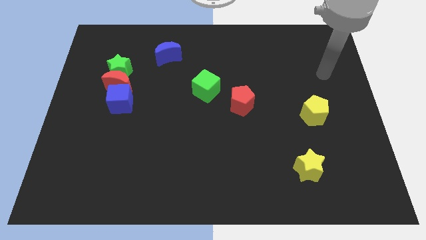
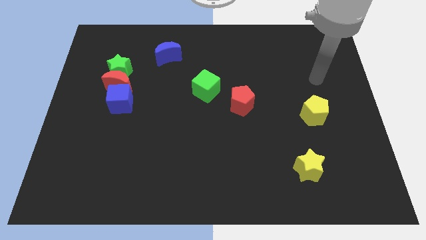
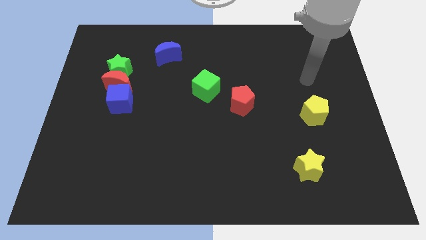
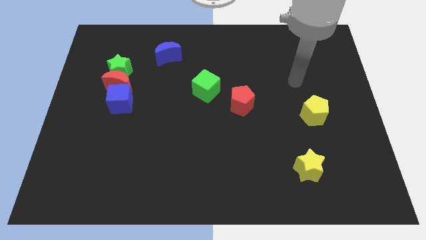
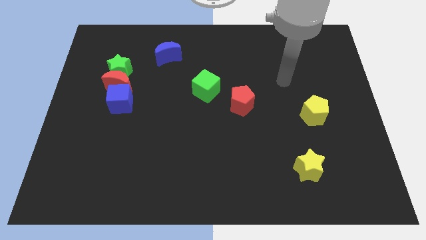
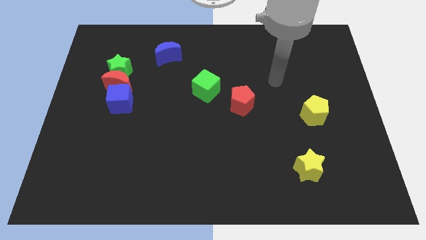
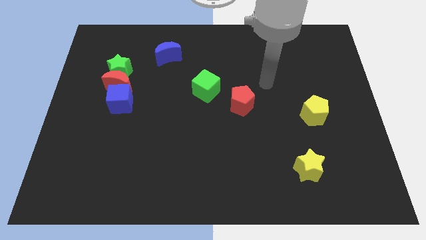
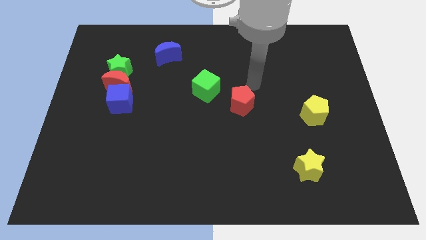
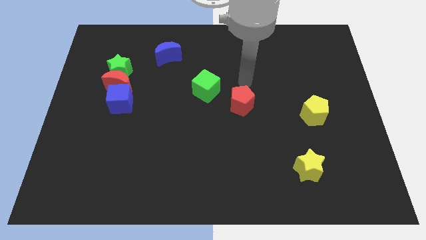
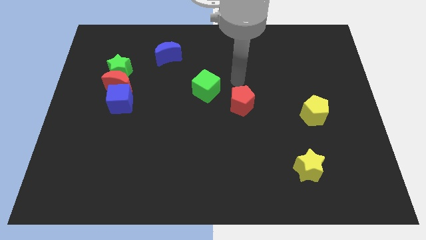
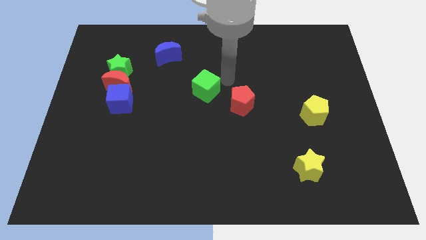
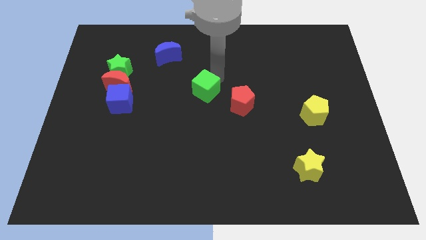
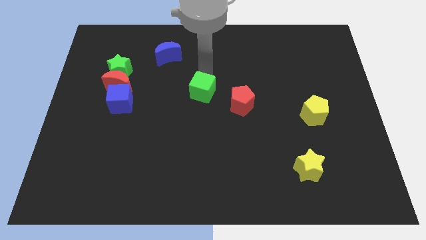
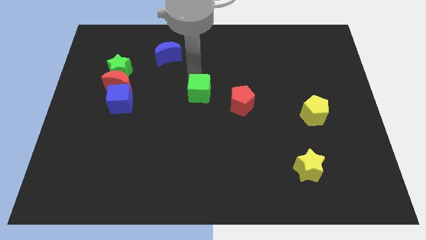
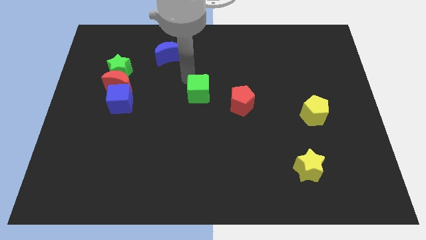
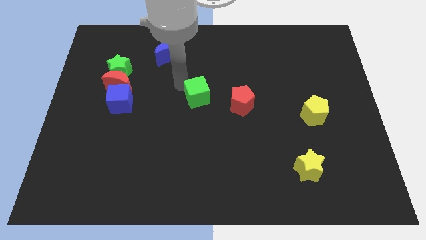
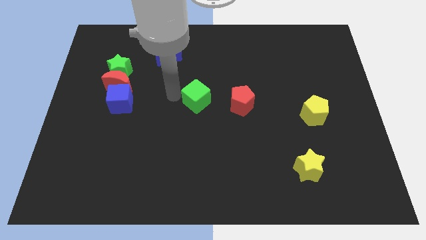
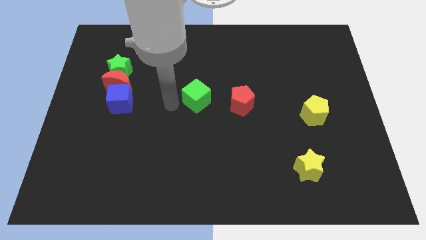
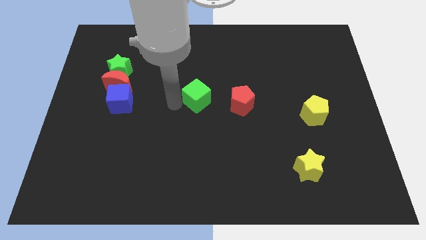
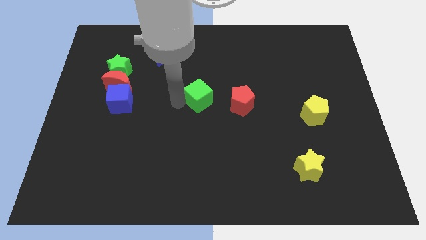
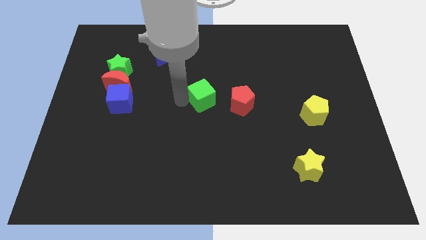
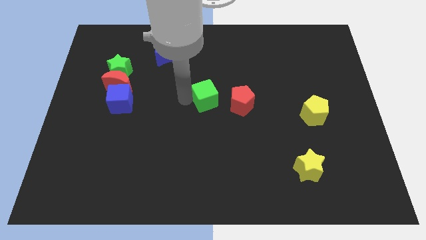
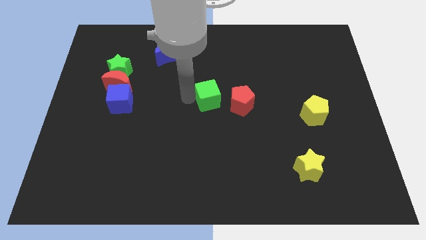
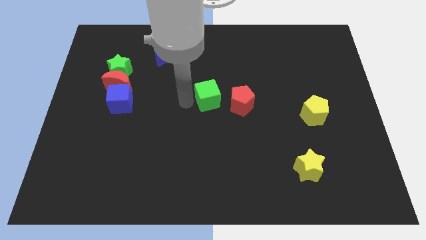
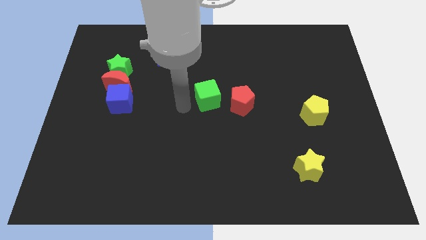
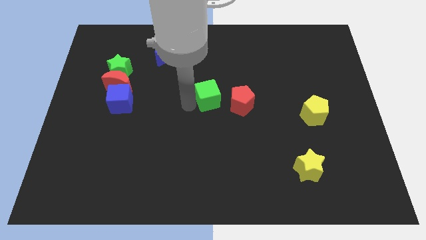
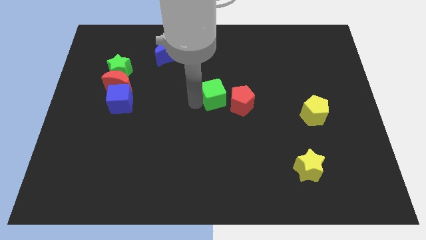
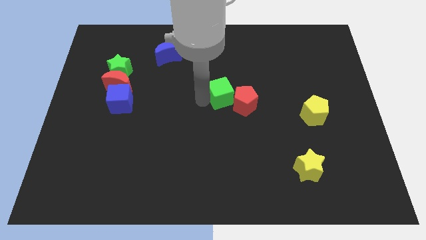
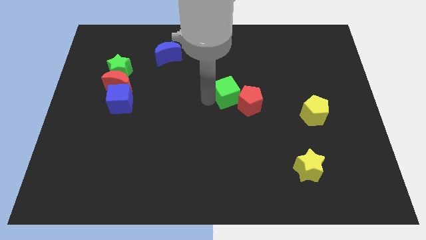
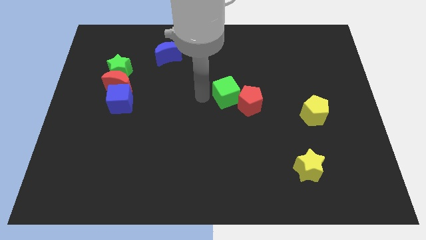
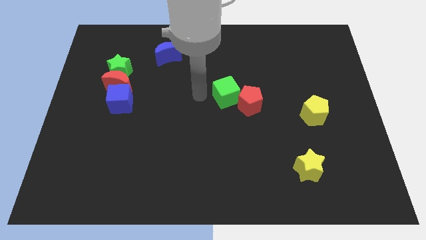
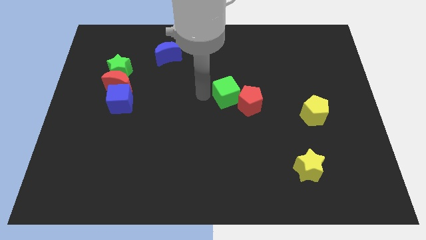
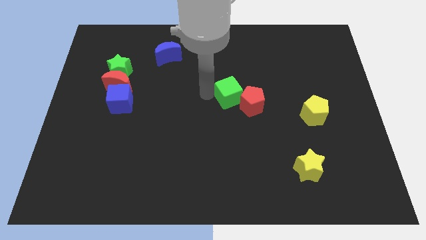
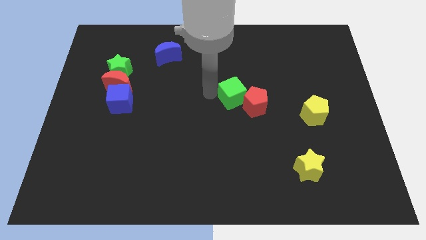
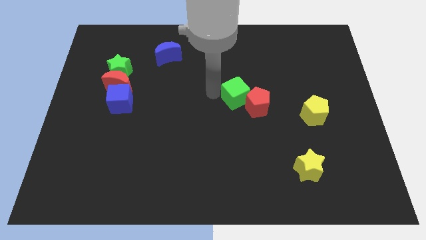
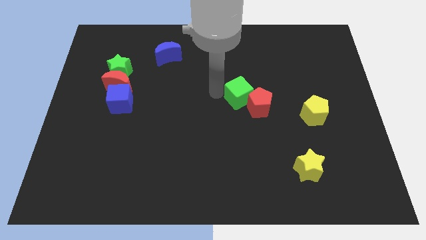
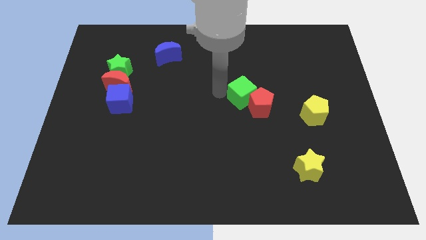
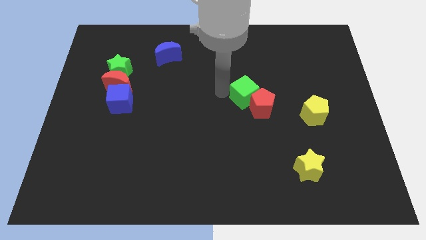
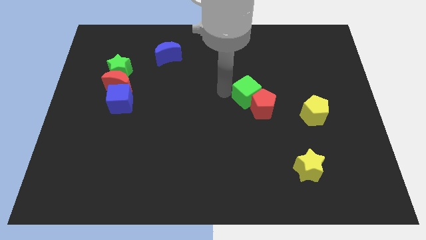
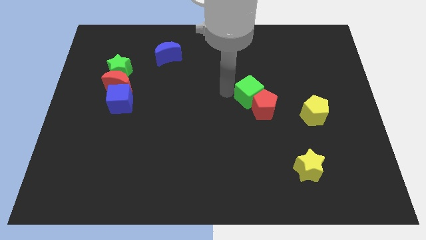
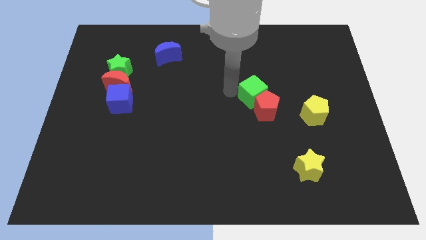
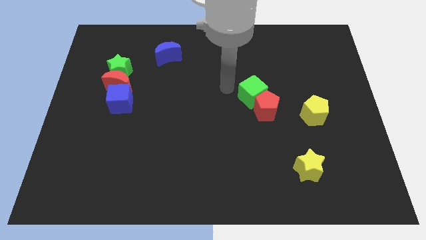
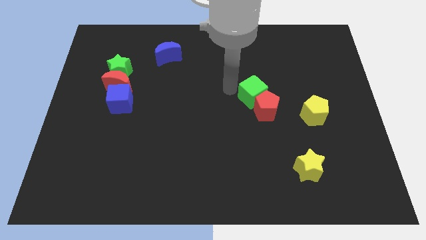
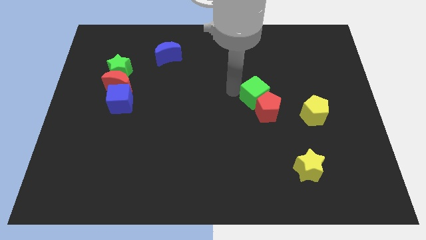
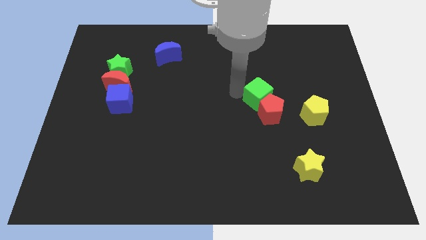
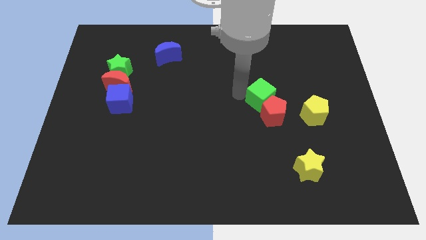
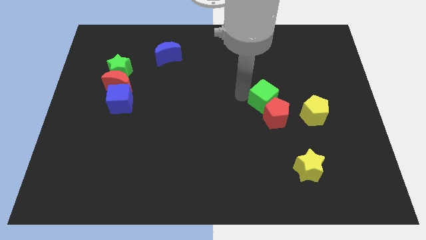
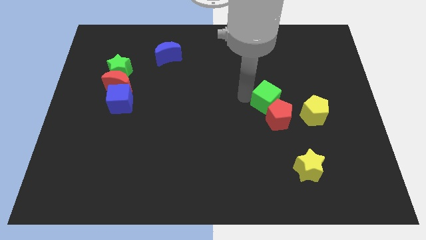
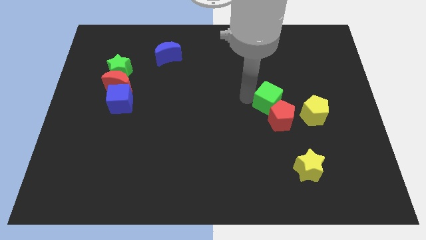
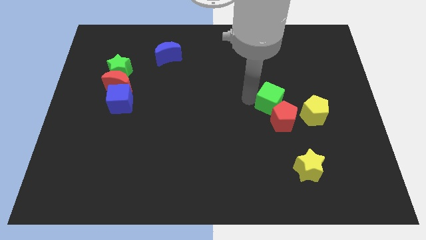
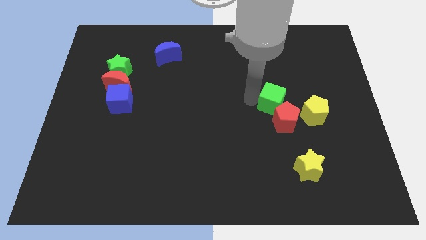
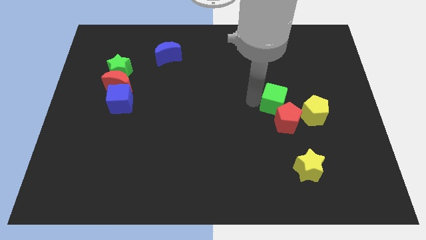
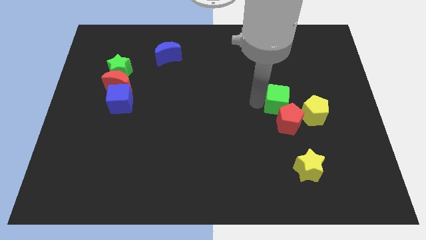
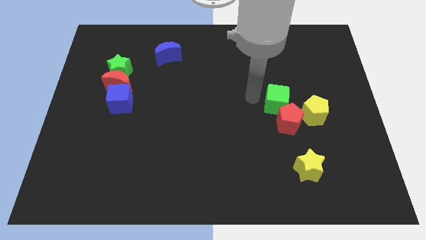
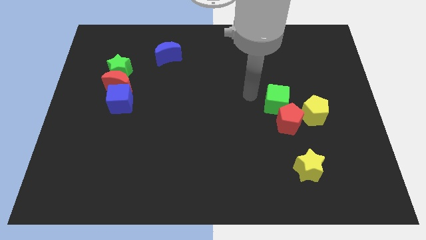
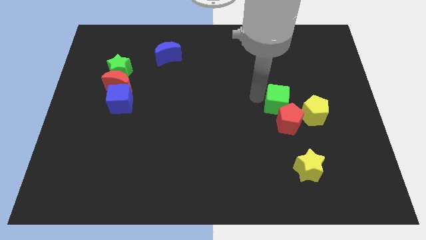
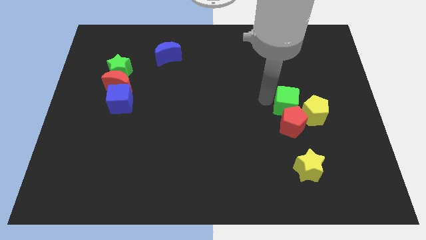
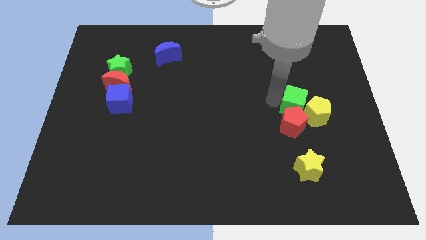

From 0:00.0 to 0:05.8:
move the green cube to the yellow pentagon

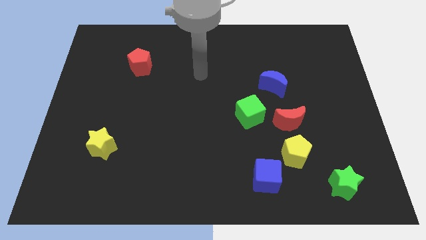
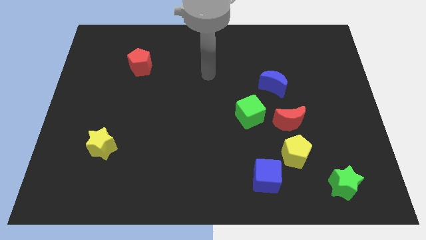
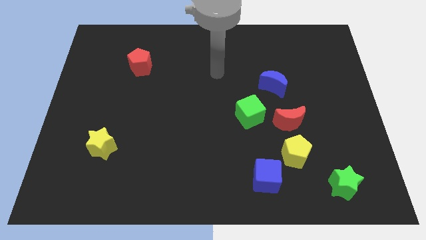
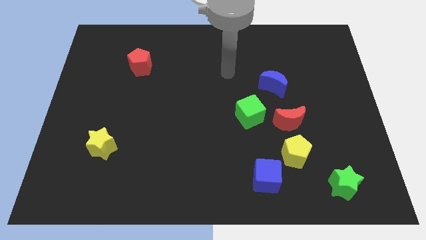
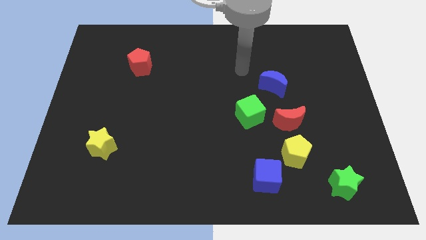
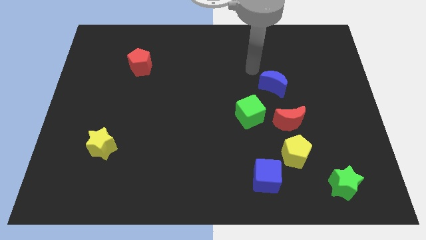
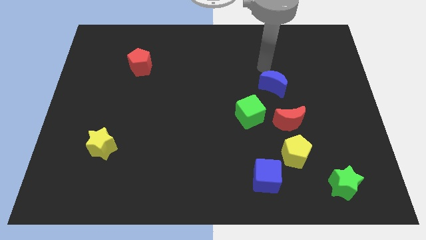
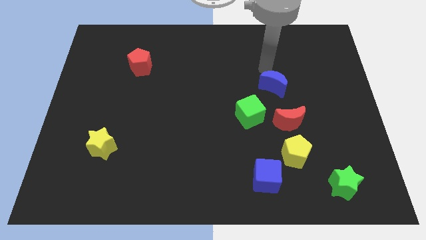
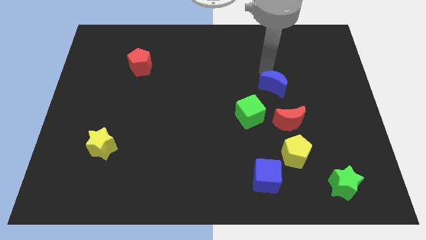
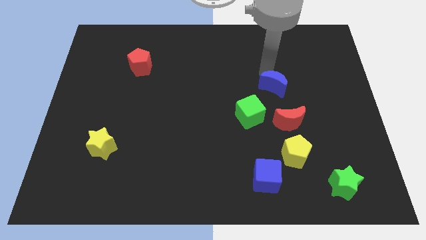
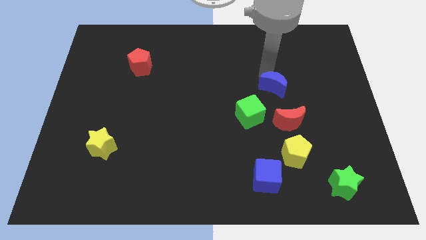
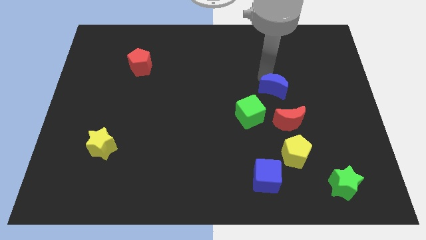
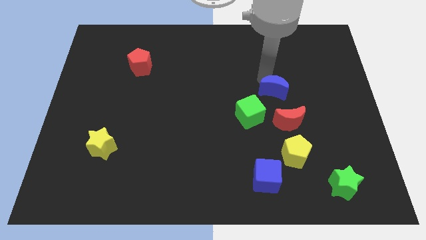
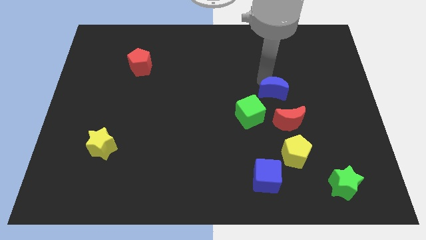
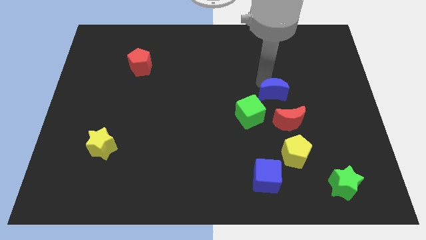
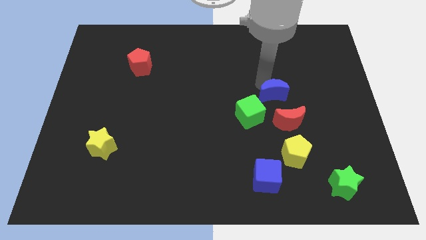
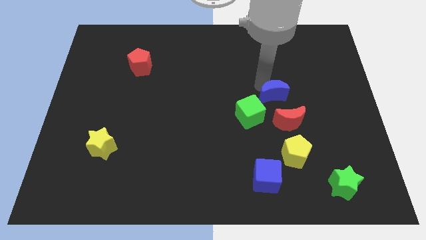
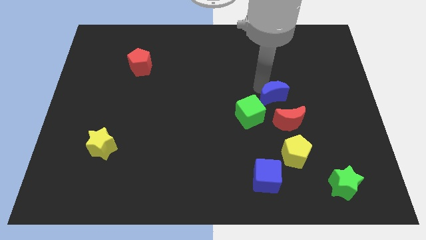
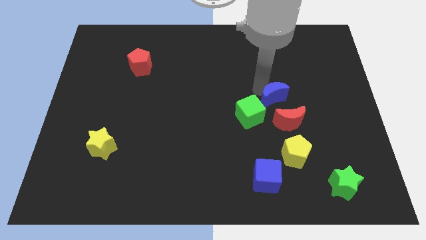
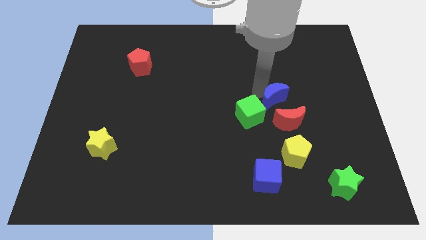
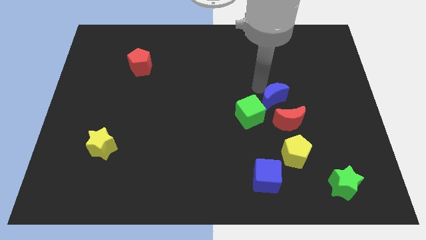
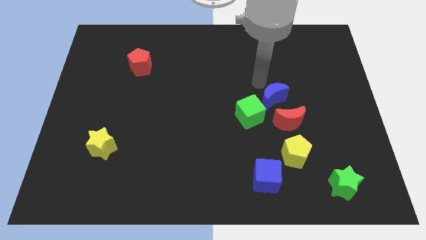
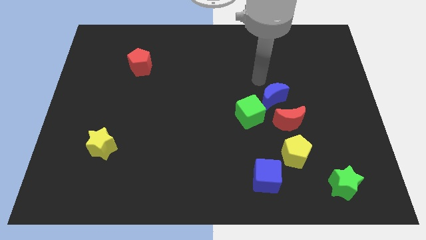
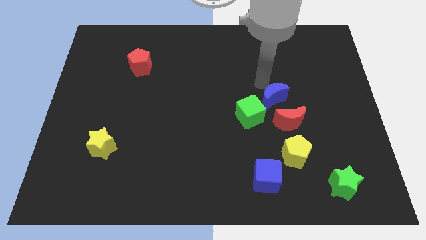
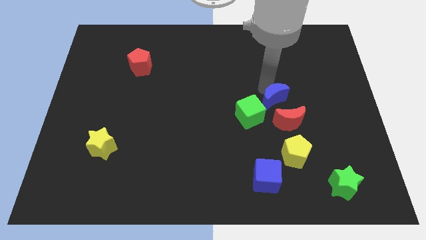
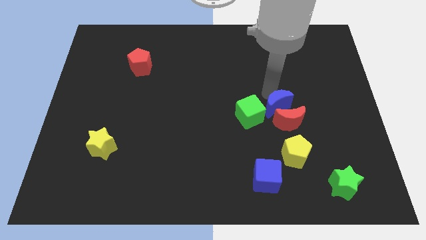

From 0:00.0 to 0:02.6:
put the blue moon towards the red moon

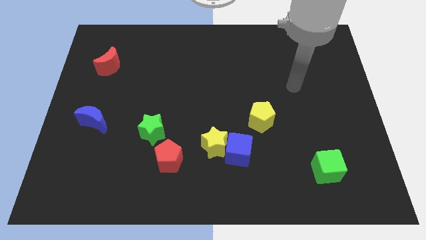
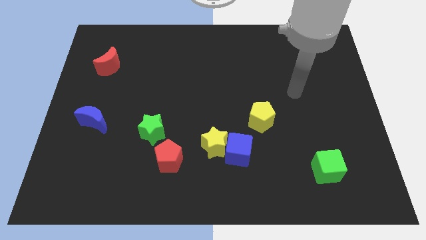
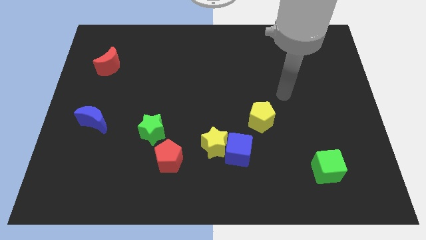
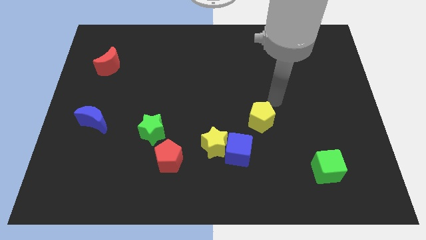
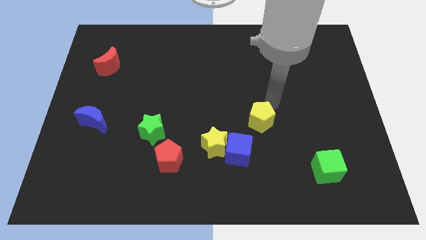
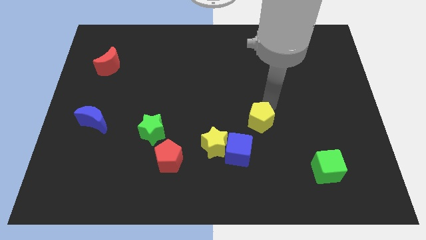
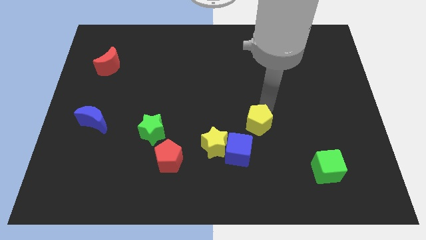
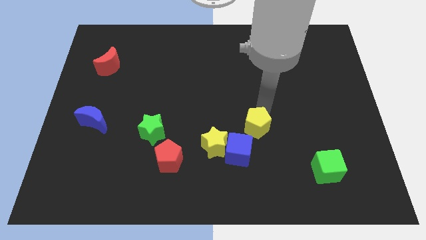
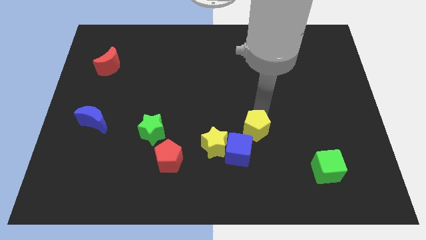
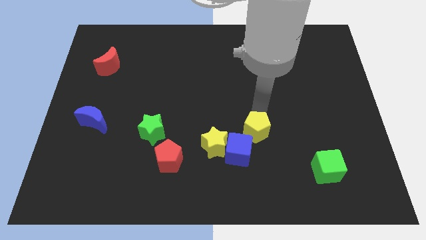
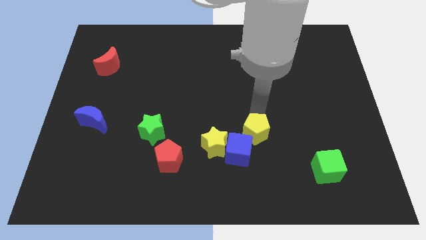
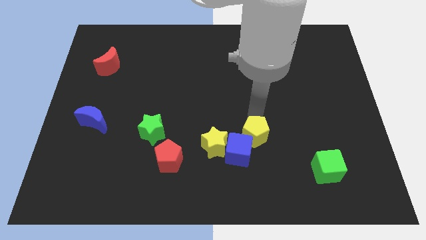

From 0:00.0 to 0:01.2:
move the yellow pentagon towards the blue cube
